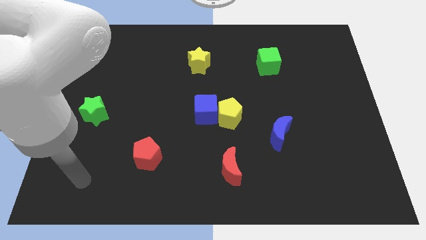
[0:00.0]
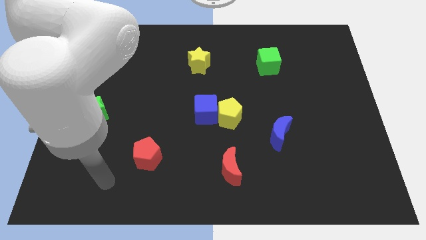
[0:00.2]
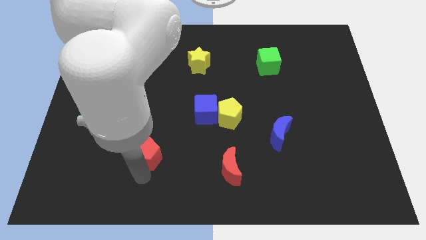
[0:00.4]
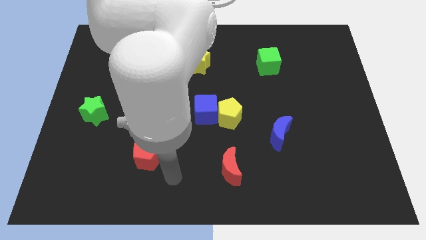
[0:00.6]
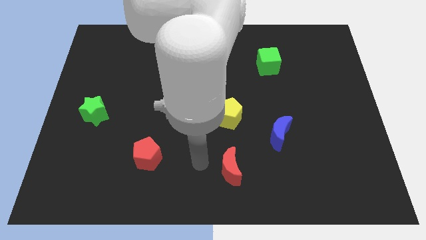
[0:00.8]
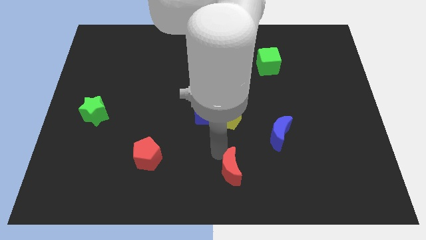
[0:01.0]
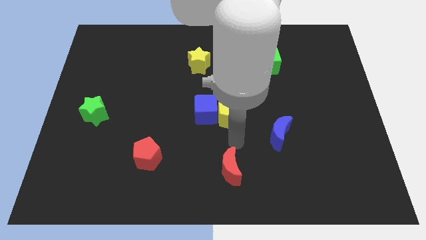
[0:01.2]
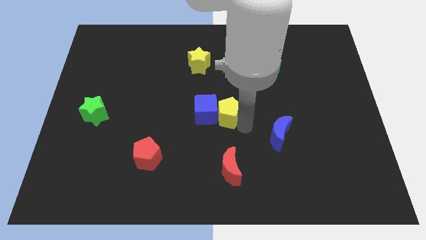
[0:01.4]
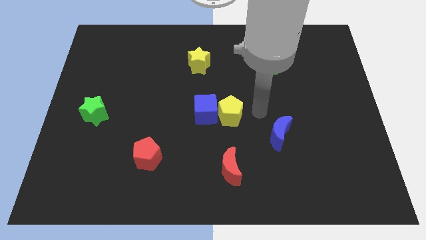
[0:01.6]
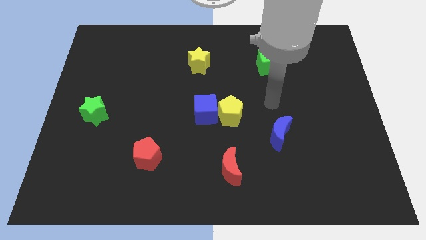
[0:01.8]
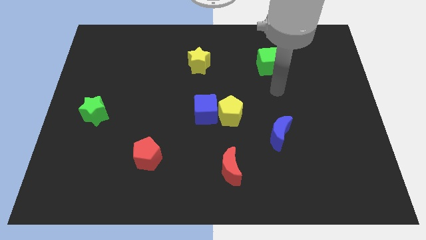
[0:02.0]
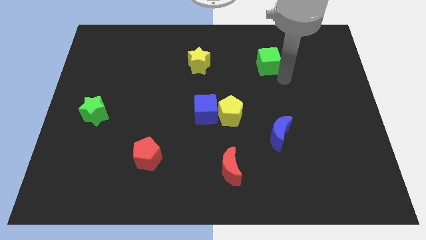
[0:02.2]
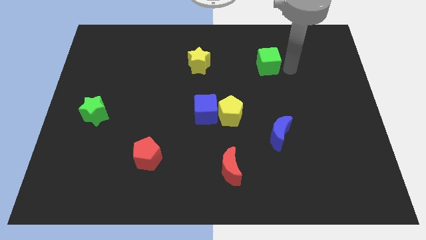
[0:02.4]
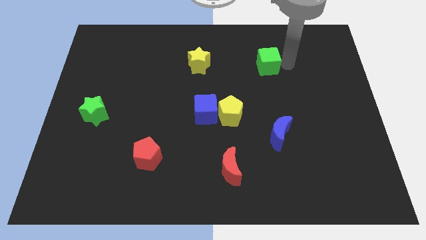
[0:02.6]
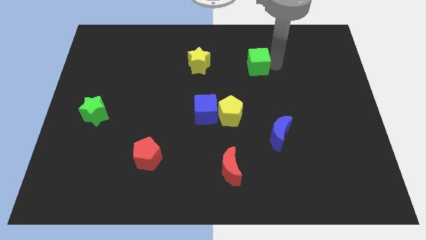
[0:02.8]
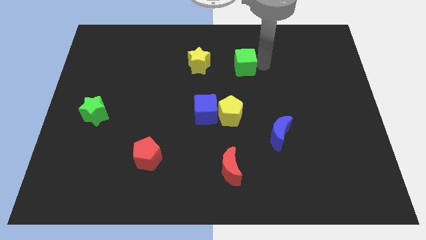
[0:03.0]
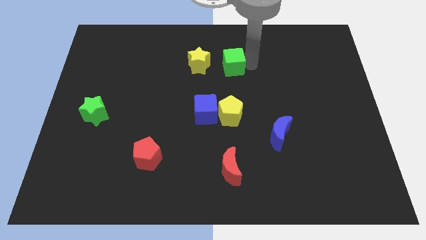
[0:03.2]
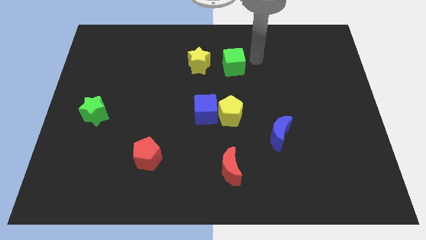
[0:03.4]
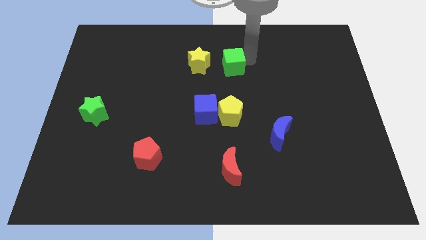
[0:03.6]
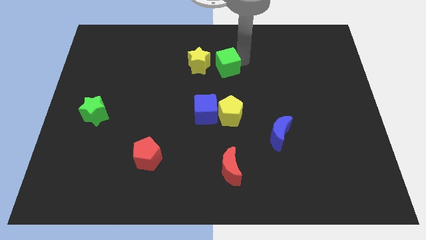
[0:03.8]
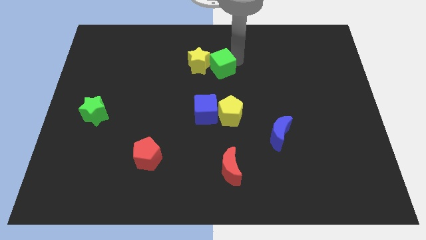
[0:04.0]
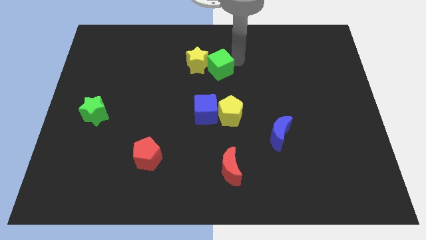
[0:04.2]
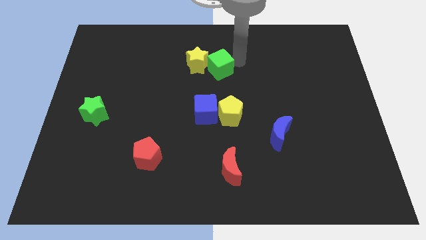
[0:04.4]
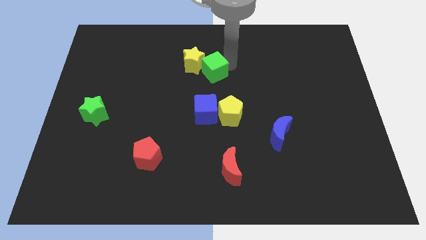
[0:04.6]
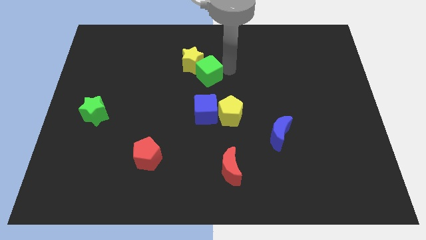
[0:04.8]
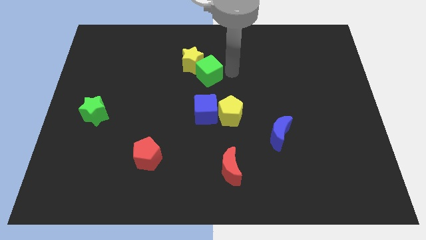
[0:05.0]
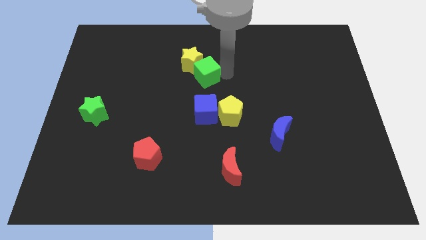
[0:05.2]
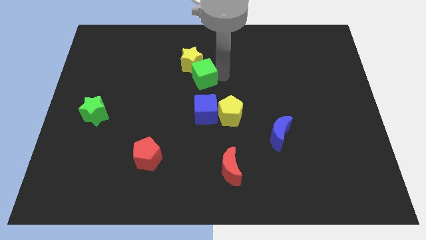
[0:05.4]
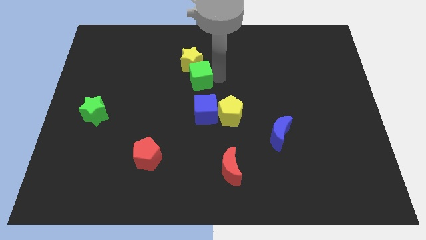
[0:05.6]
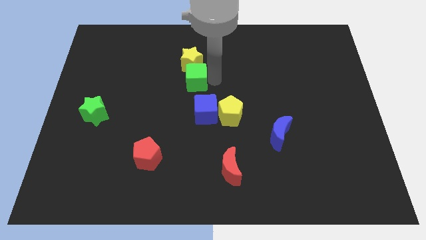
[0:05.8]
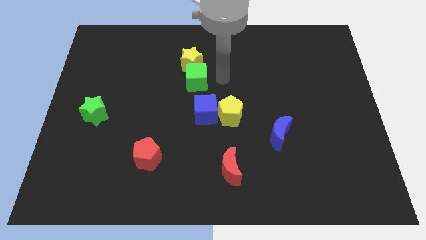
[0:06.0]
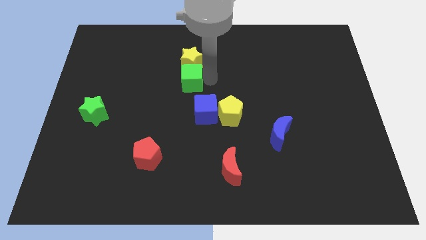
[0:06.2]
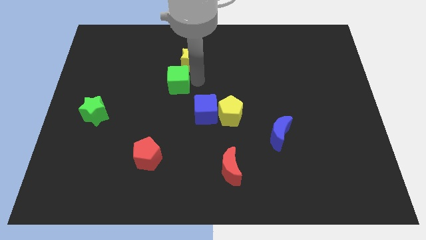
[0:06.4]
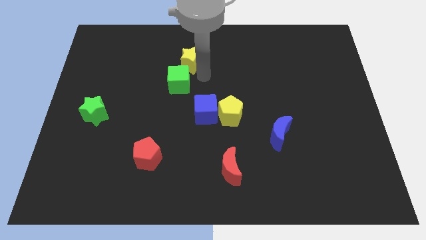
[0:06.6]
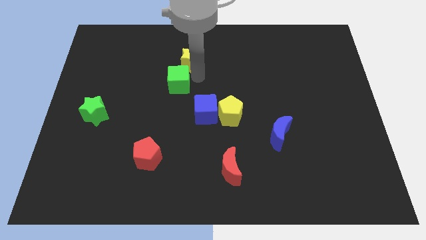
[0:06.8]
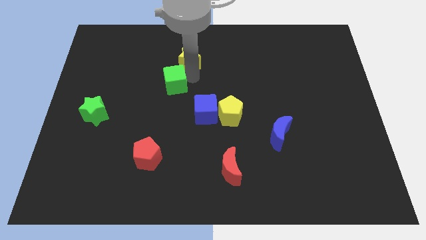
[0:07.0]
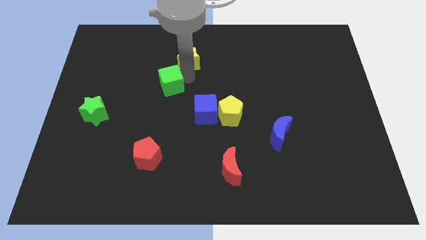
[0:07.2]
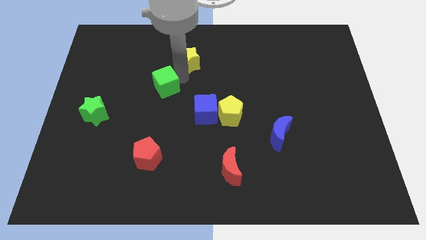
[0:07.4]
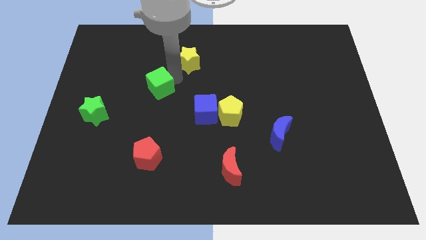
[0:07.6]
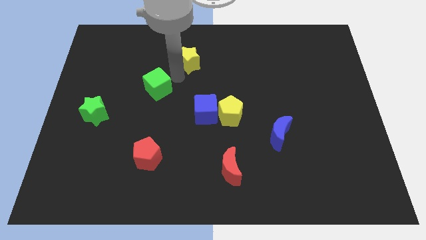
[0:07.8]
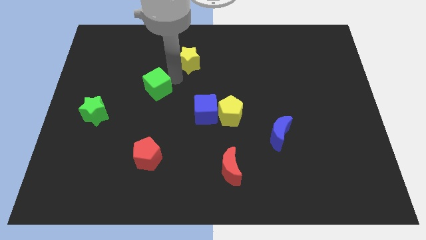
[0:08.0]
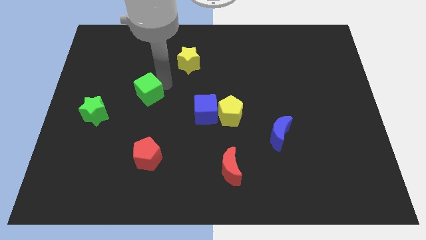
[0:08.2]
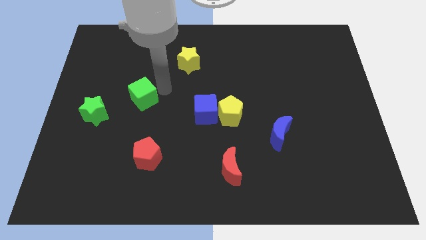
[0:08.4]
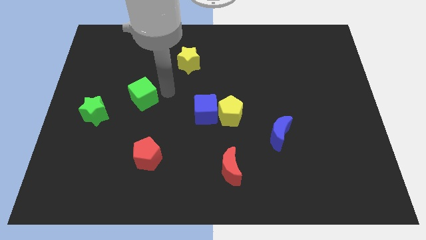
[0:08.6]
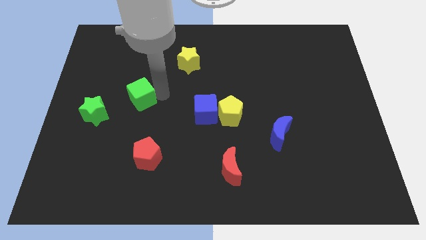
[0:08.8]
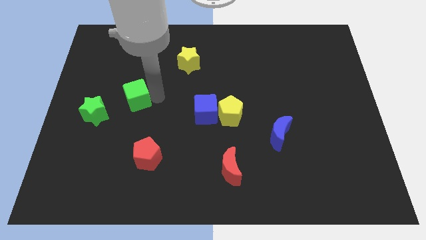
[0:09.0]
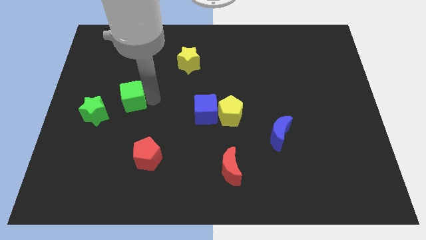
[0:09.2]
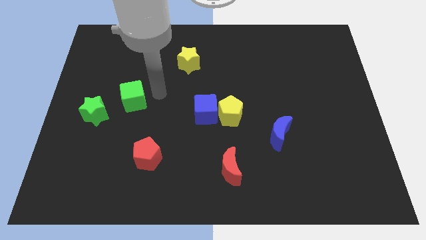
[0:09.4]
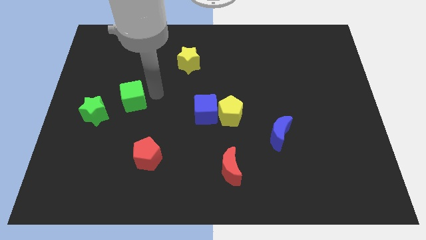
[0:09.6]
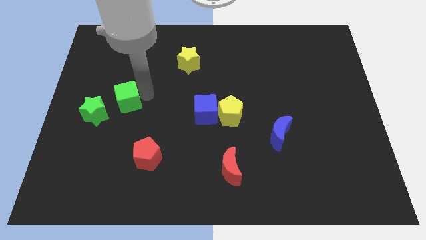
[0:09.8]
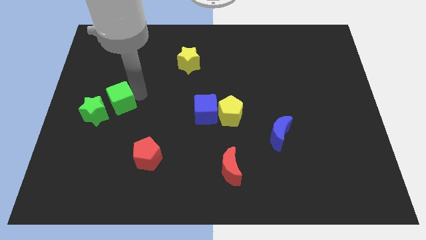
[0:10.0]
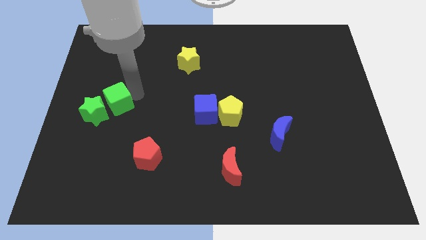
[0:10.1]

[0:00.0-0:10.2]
slide the green cube to the green star

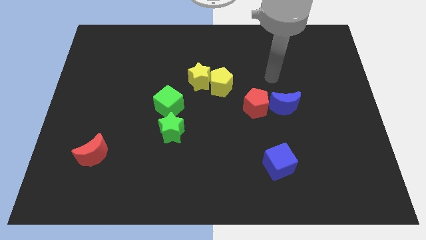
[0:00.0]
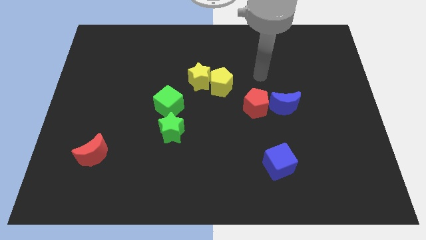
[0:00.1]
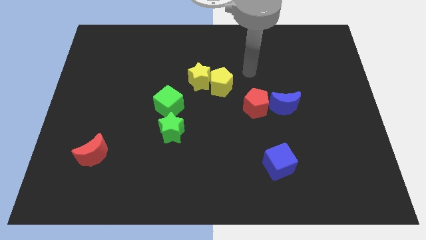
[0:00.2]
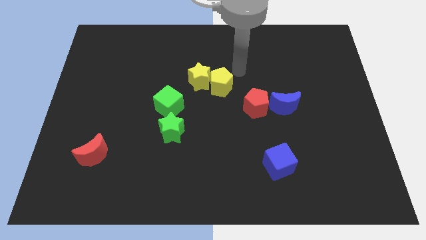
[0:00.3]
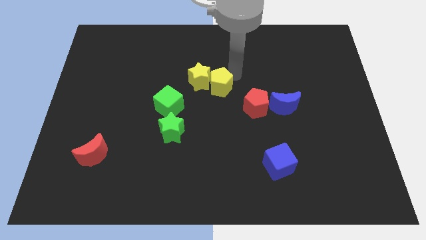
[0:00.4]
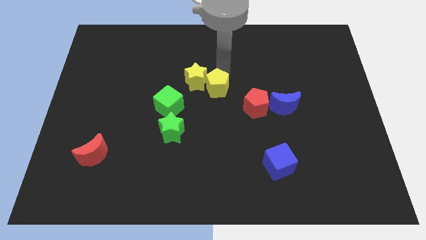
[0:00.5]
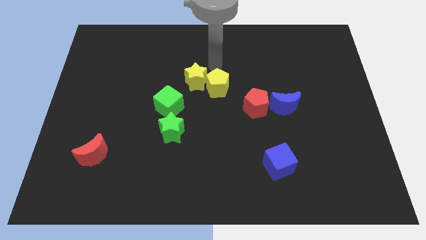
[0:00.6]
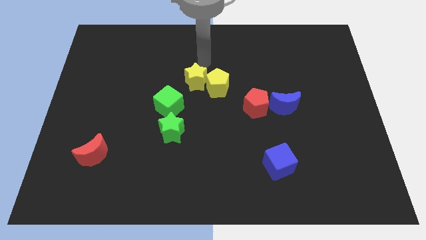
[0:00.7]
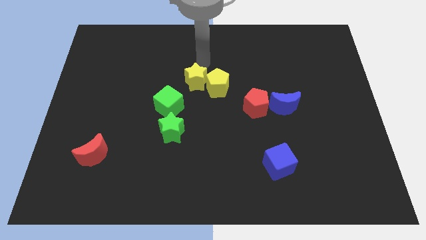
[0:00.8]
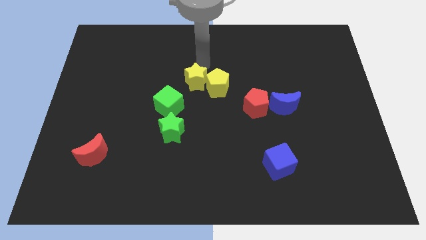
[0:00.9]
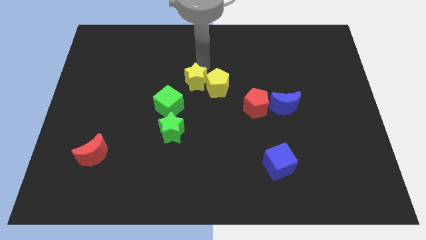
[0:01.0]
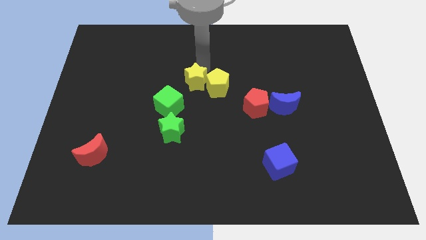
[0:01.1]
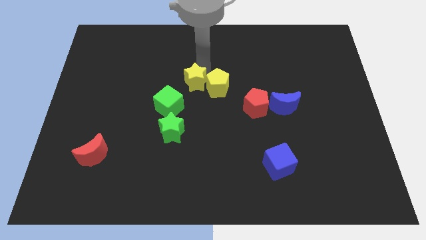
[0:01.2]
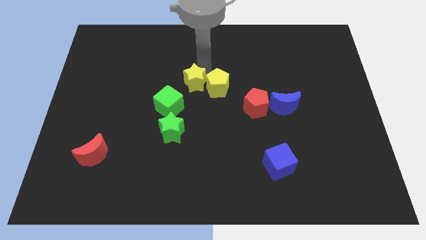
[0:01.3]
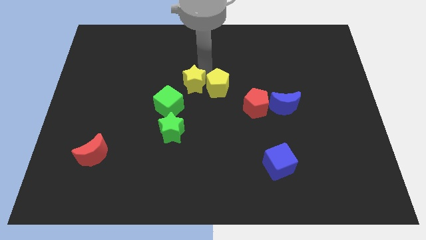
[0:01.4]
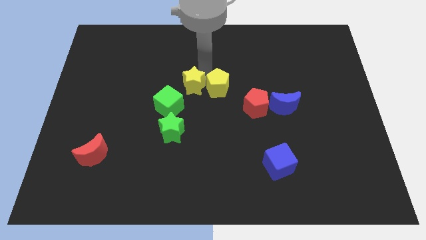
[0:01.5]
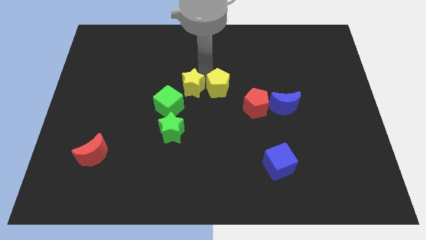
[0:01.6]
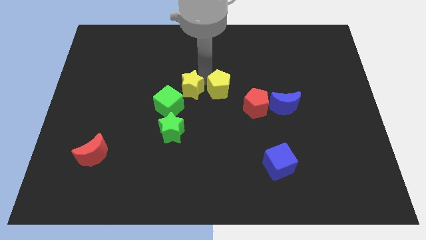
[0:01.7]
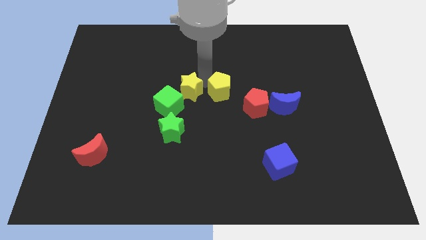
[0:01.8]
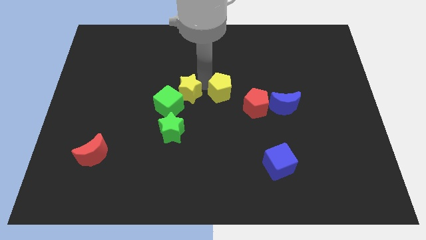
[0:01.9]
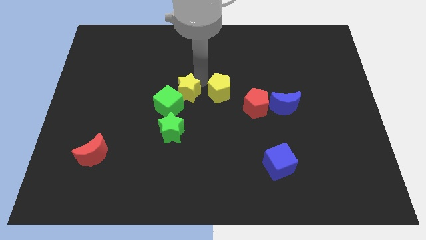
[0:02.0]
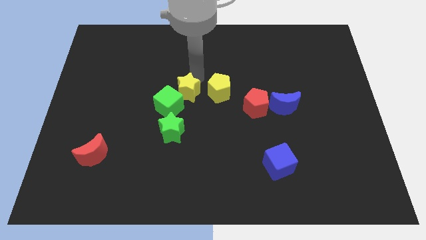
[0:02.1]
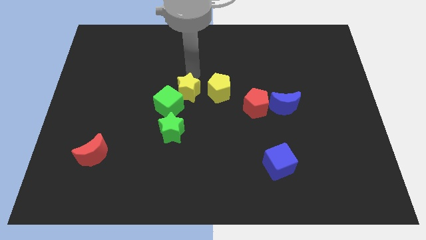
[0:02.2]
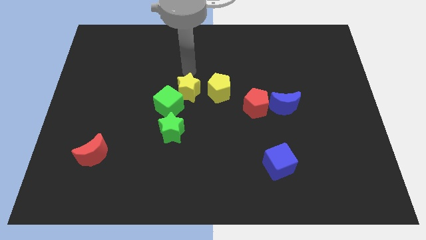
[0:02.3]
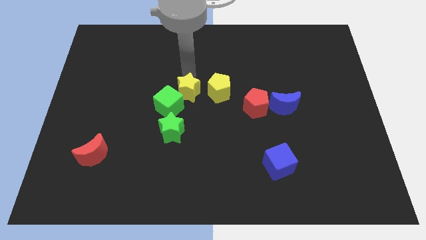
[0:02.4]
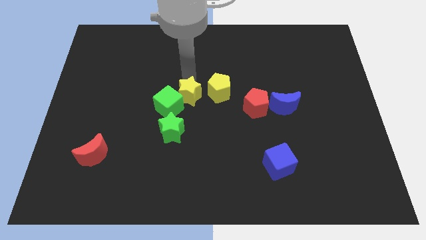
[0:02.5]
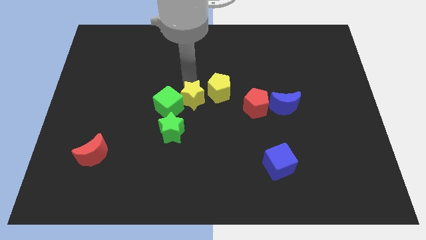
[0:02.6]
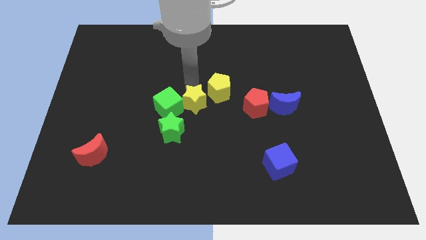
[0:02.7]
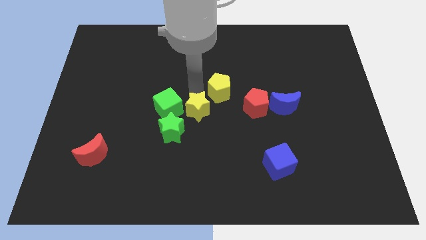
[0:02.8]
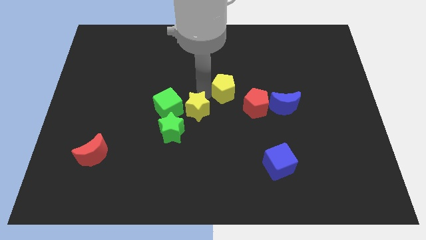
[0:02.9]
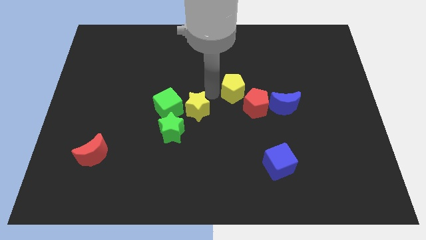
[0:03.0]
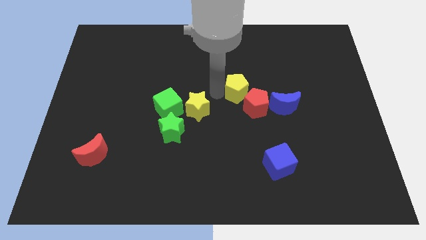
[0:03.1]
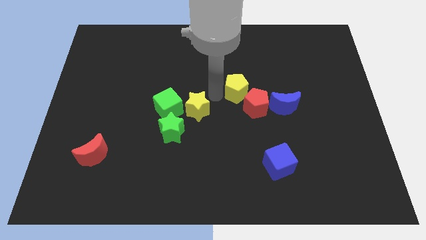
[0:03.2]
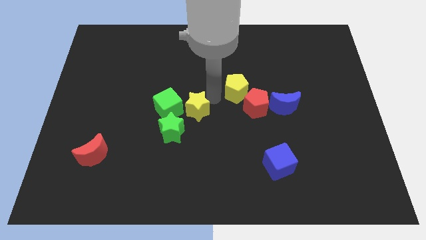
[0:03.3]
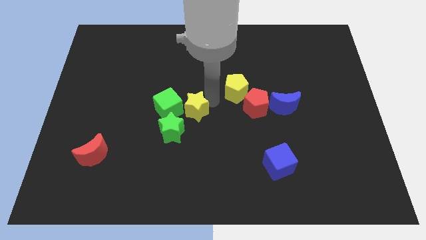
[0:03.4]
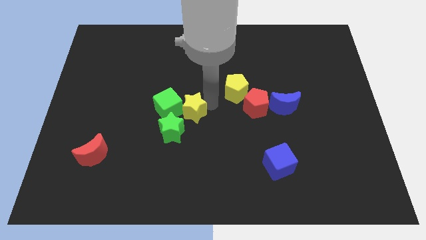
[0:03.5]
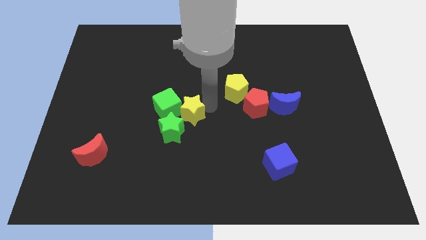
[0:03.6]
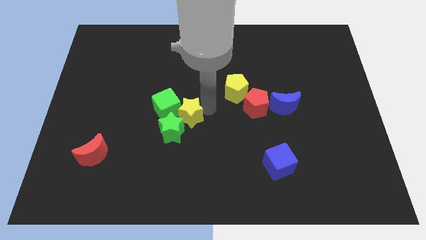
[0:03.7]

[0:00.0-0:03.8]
move the yellow star close to the green star
